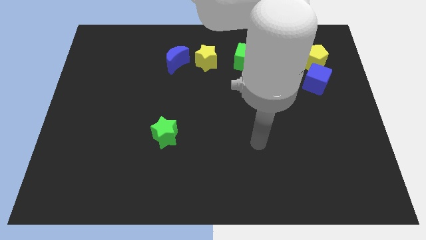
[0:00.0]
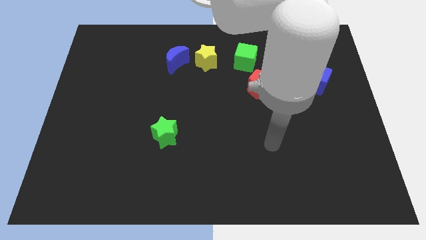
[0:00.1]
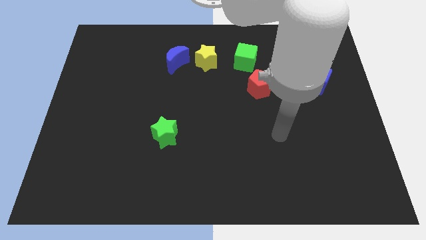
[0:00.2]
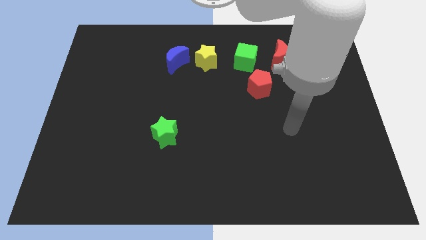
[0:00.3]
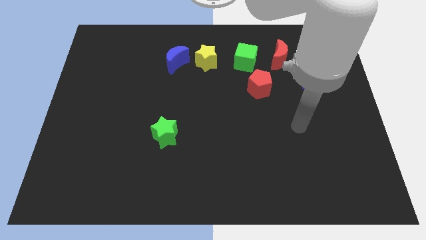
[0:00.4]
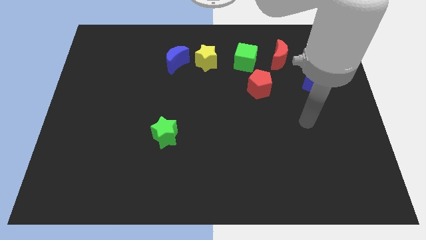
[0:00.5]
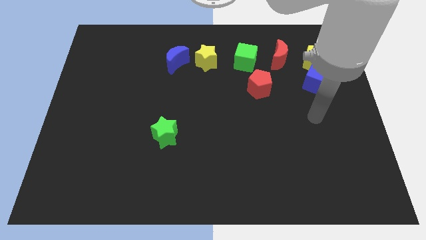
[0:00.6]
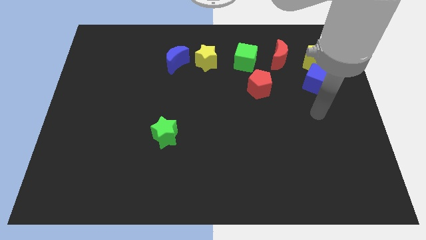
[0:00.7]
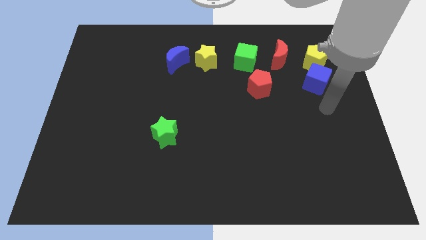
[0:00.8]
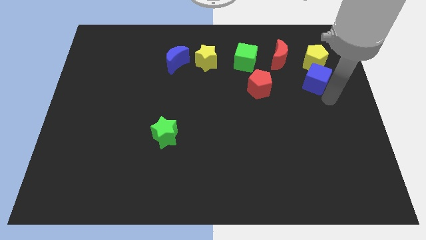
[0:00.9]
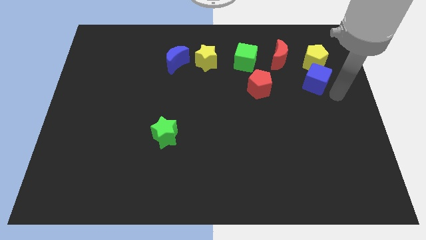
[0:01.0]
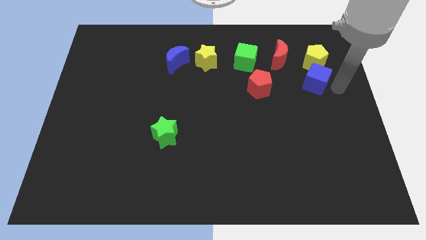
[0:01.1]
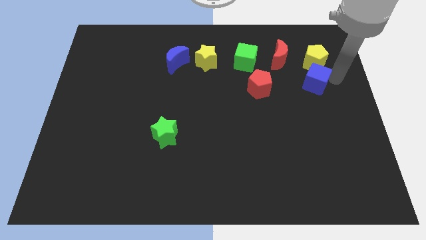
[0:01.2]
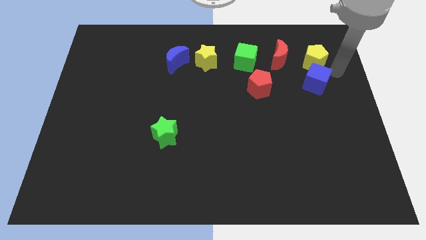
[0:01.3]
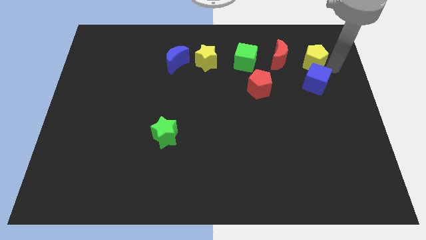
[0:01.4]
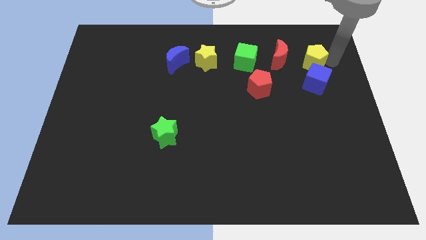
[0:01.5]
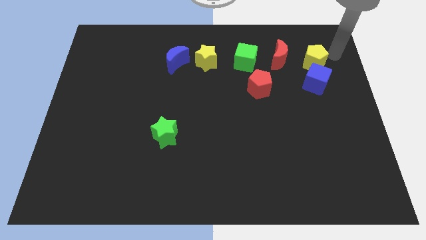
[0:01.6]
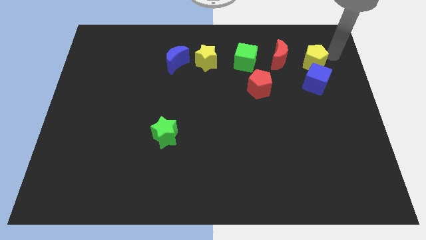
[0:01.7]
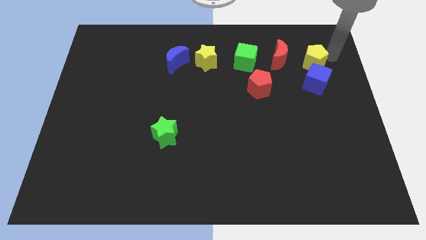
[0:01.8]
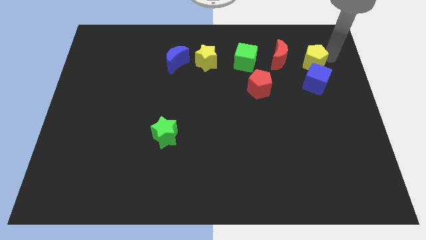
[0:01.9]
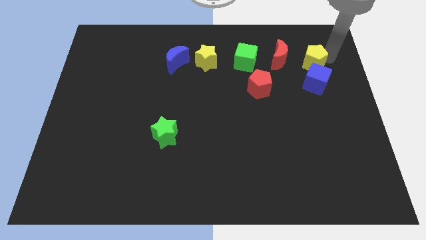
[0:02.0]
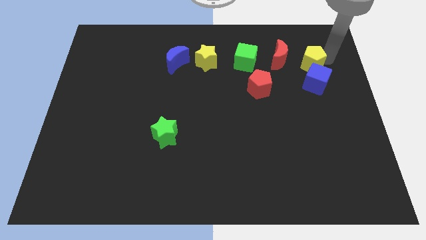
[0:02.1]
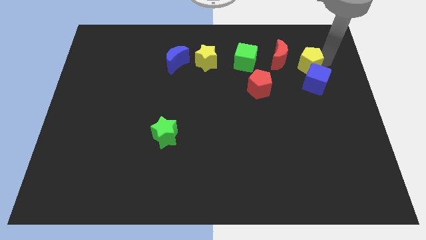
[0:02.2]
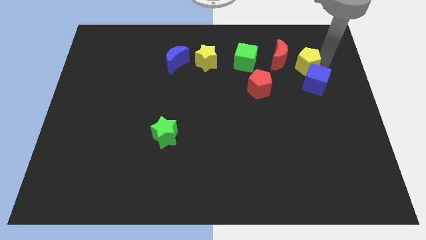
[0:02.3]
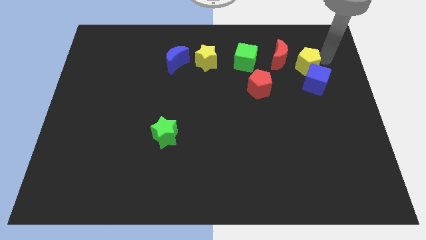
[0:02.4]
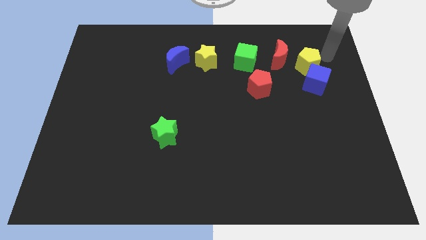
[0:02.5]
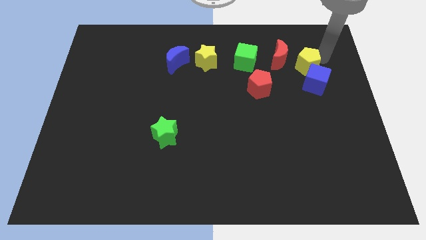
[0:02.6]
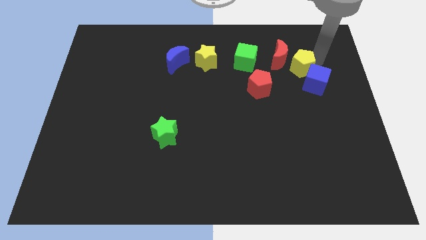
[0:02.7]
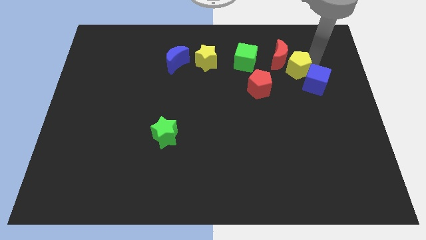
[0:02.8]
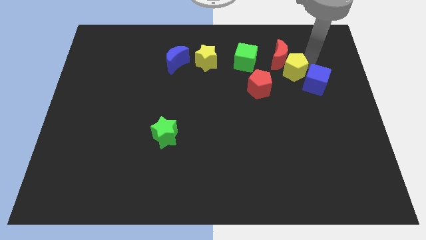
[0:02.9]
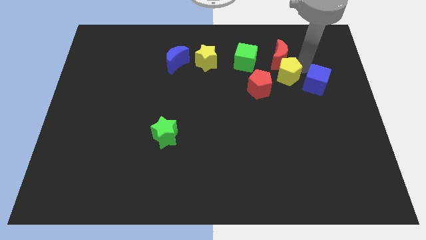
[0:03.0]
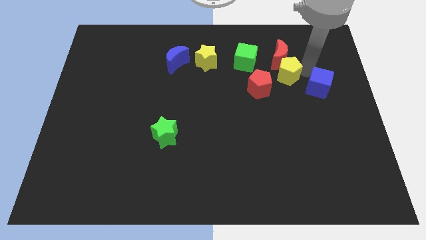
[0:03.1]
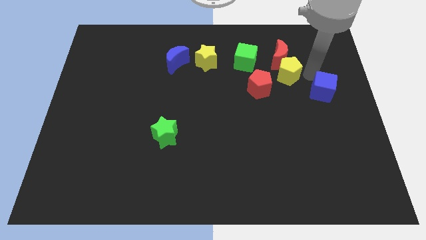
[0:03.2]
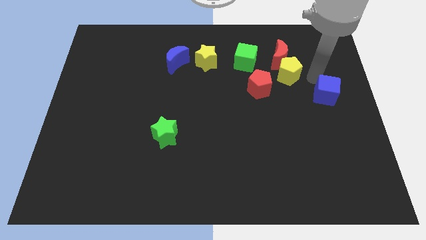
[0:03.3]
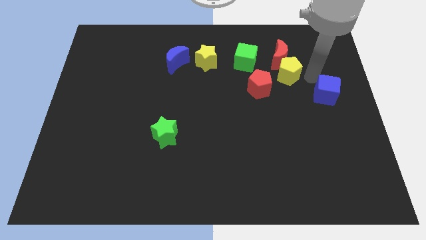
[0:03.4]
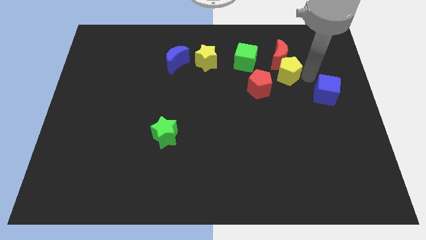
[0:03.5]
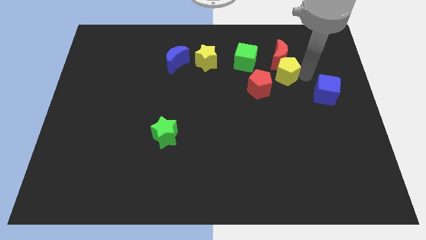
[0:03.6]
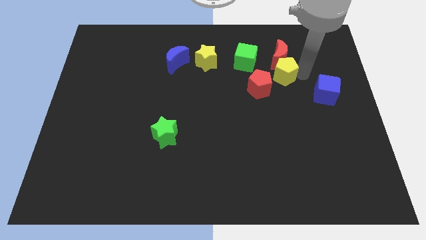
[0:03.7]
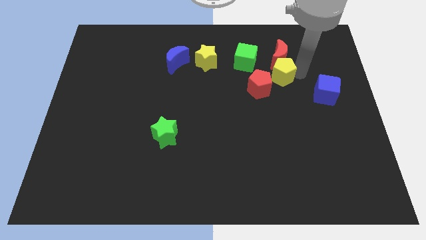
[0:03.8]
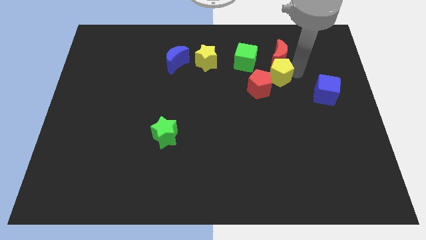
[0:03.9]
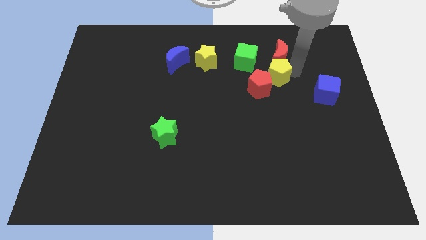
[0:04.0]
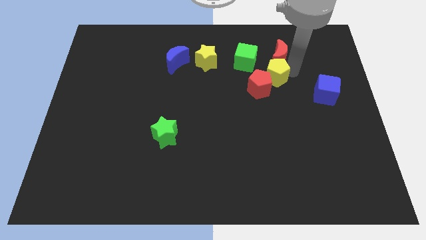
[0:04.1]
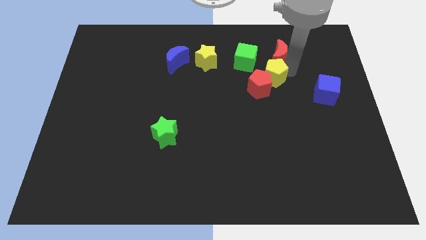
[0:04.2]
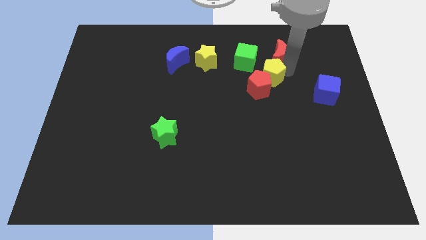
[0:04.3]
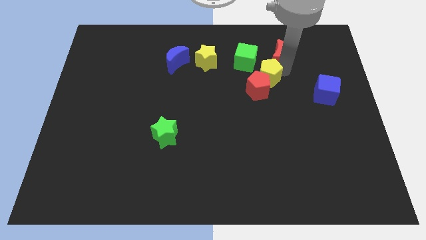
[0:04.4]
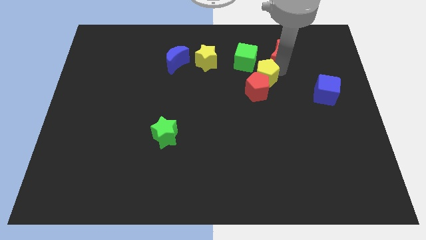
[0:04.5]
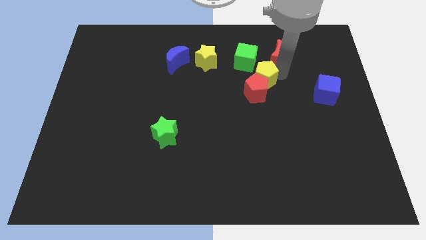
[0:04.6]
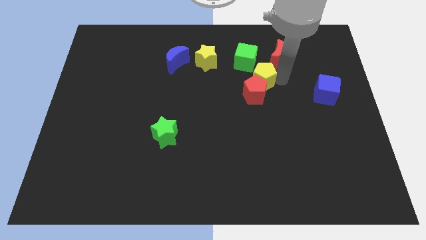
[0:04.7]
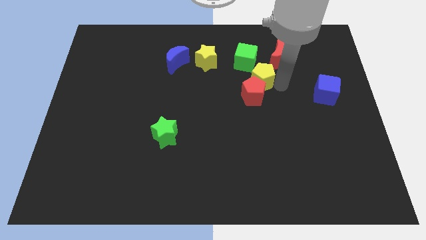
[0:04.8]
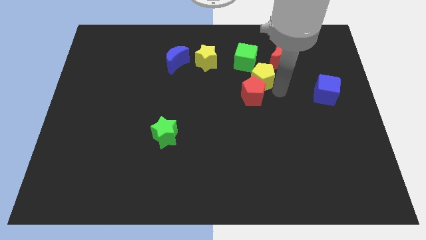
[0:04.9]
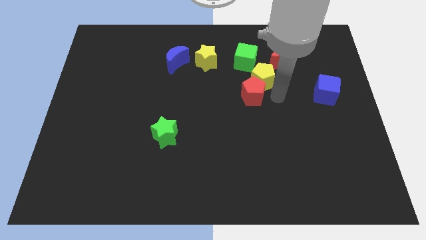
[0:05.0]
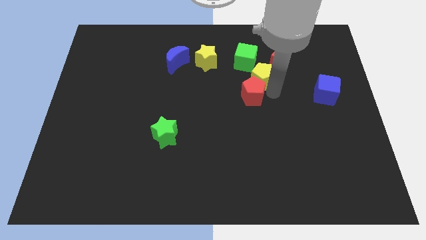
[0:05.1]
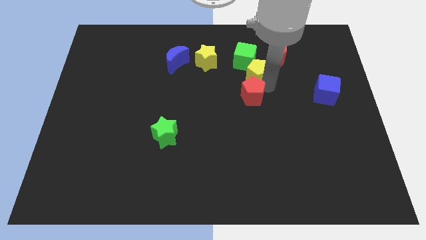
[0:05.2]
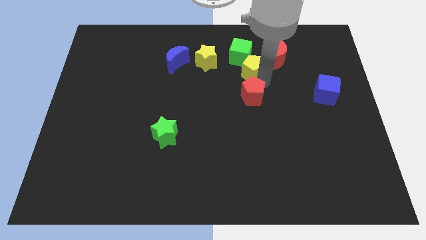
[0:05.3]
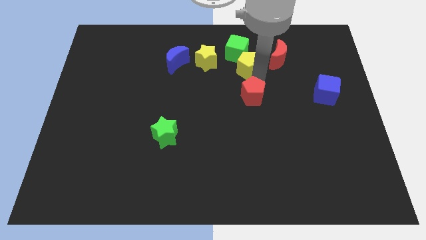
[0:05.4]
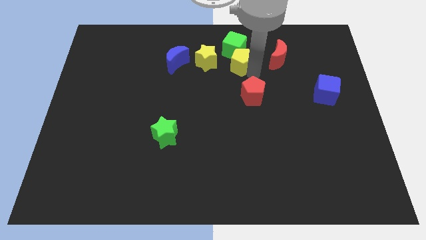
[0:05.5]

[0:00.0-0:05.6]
move the yellow pentagon next to the green cube

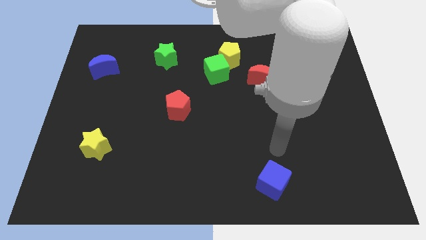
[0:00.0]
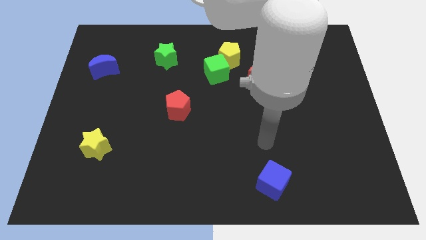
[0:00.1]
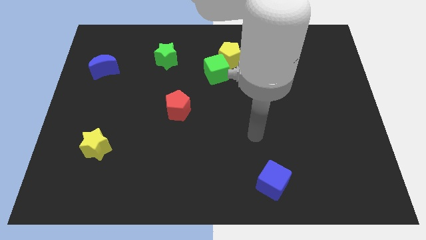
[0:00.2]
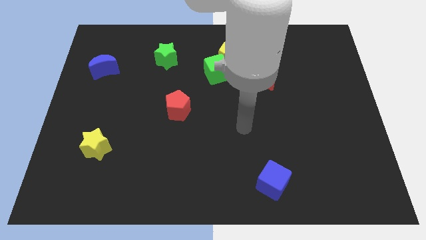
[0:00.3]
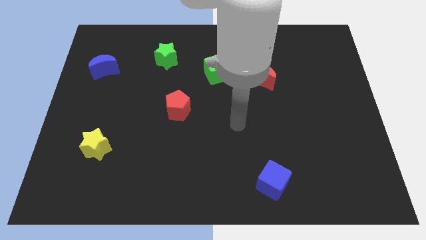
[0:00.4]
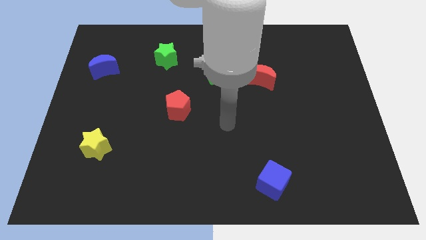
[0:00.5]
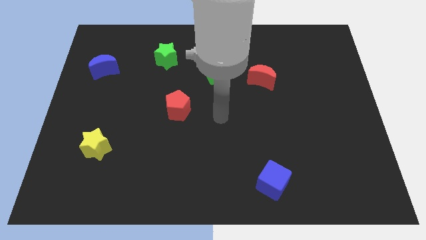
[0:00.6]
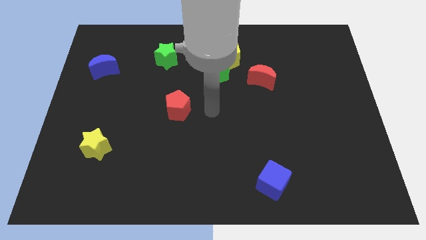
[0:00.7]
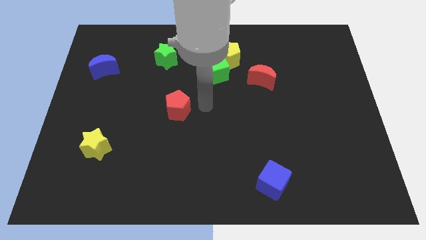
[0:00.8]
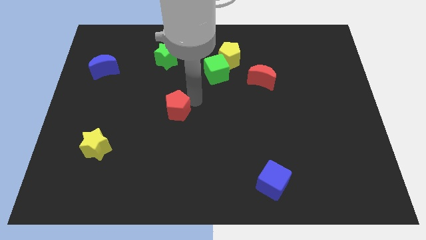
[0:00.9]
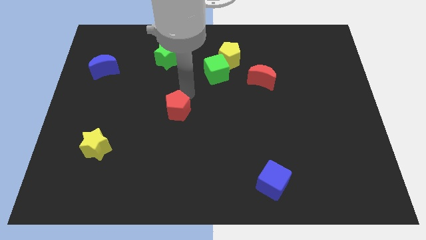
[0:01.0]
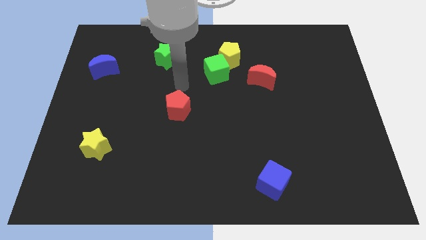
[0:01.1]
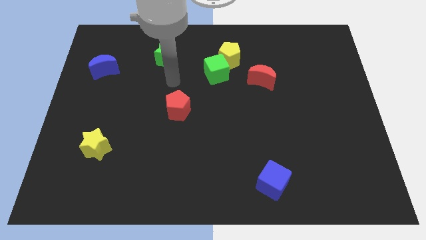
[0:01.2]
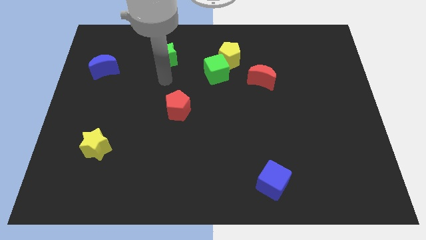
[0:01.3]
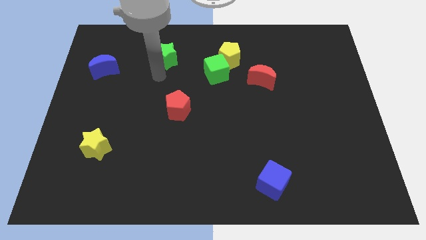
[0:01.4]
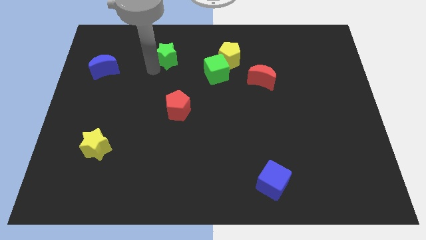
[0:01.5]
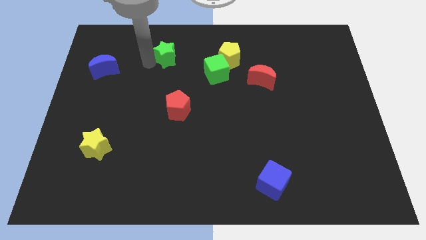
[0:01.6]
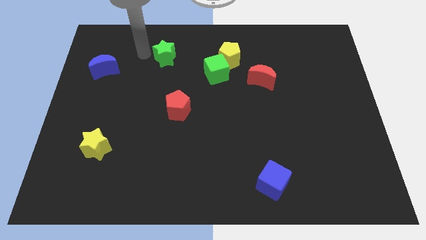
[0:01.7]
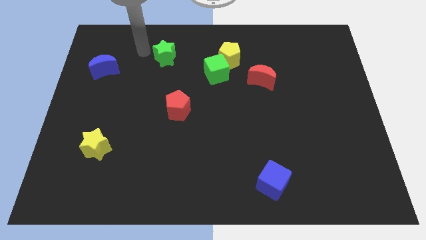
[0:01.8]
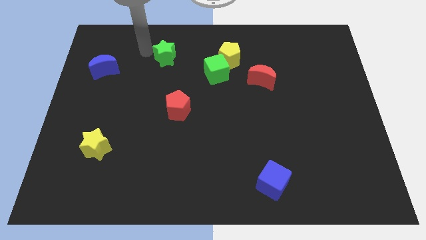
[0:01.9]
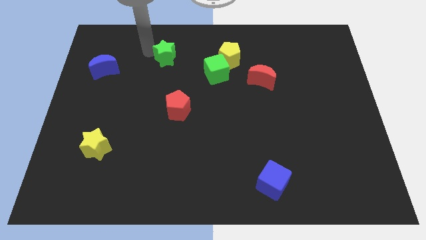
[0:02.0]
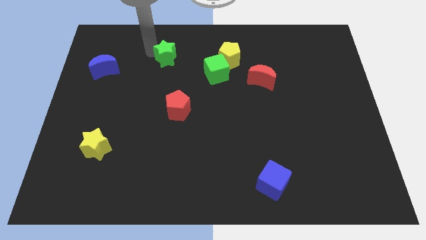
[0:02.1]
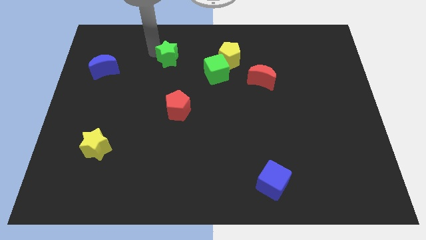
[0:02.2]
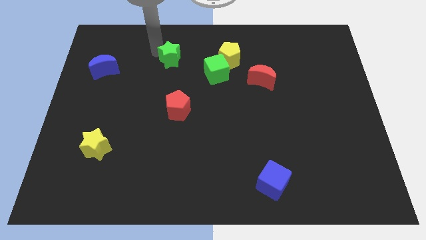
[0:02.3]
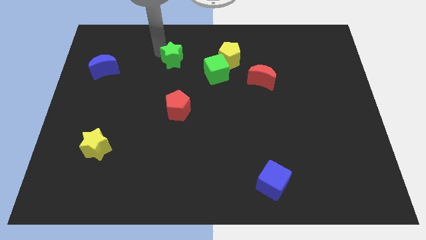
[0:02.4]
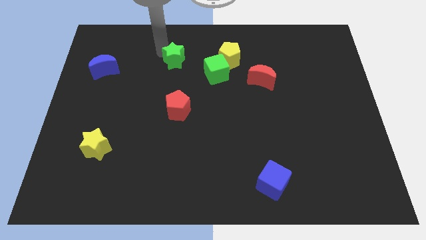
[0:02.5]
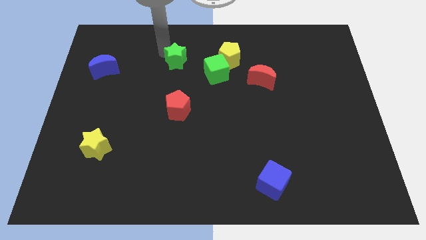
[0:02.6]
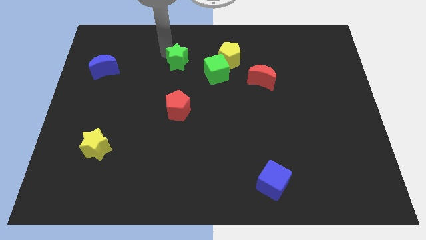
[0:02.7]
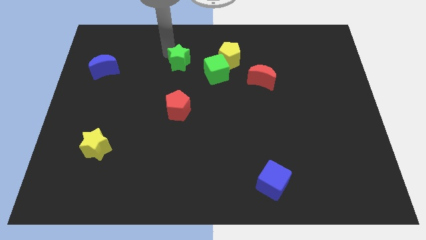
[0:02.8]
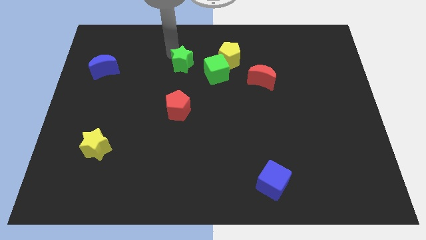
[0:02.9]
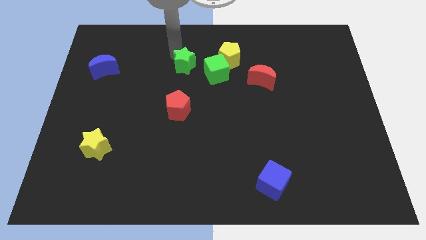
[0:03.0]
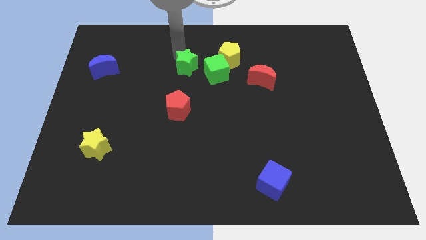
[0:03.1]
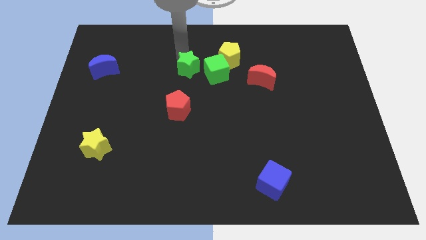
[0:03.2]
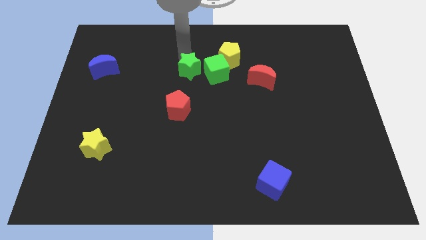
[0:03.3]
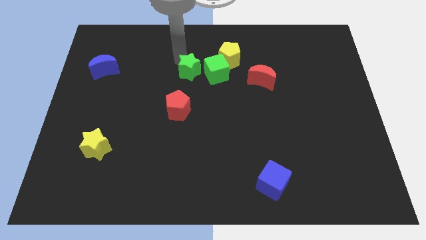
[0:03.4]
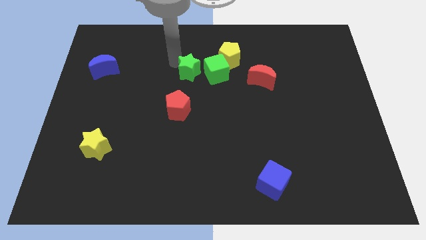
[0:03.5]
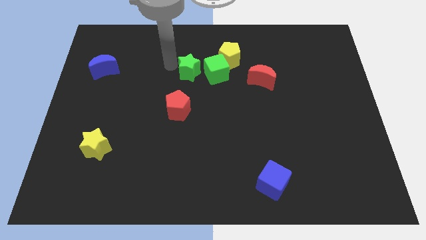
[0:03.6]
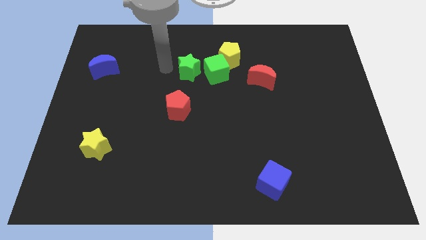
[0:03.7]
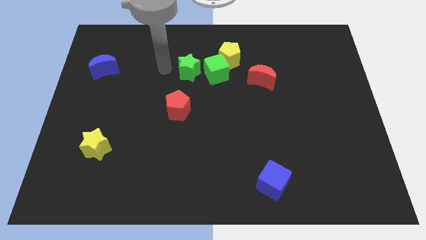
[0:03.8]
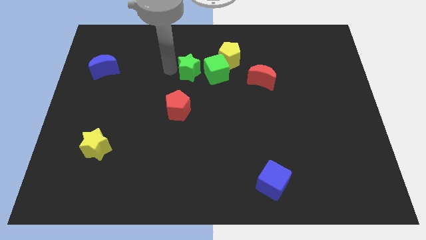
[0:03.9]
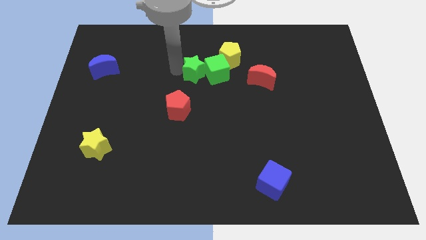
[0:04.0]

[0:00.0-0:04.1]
put the green star next to the green cube
